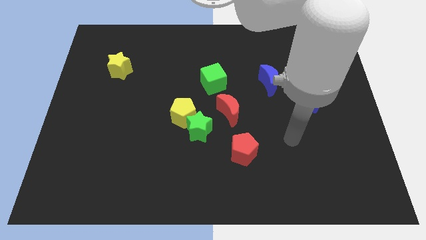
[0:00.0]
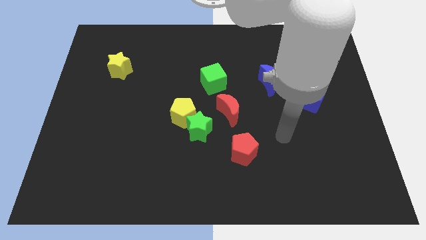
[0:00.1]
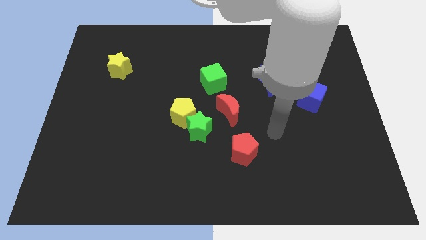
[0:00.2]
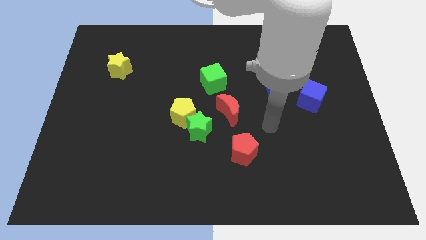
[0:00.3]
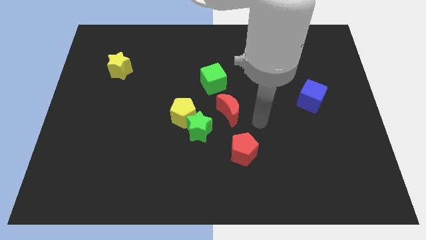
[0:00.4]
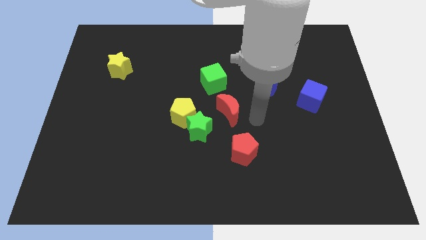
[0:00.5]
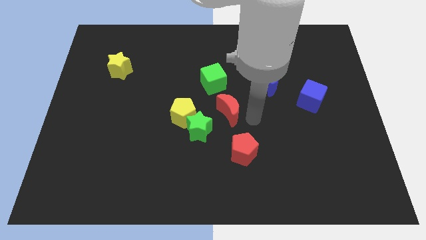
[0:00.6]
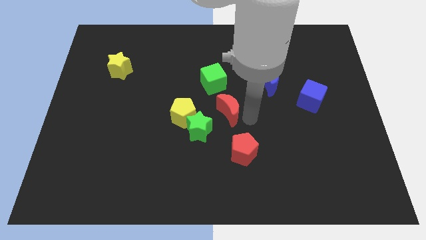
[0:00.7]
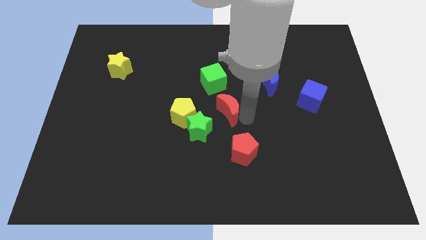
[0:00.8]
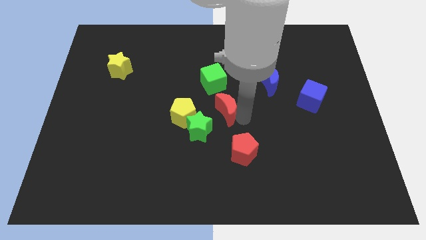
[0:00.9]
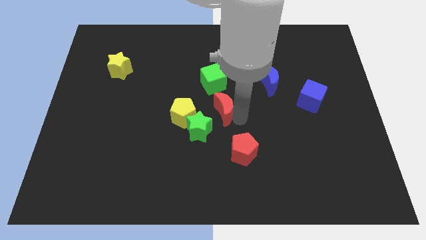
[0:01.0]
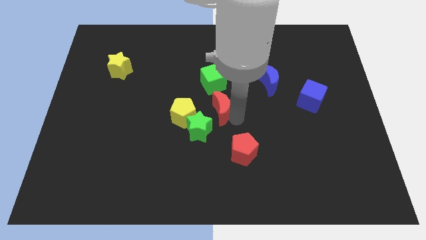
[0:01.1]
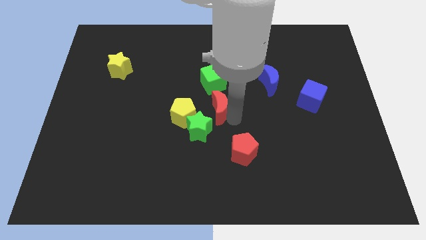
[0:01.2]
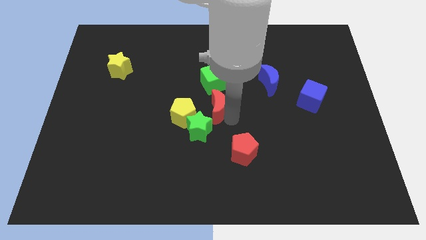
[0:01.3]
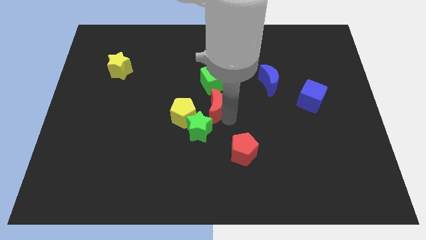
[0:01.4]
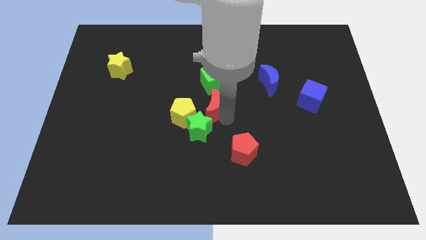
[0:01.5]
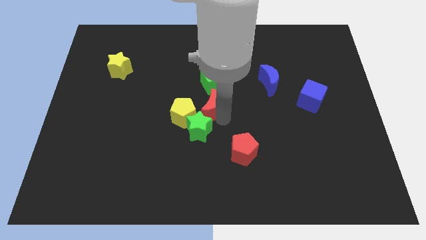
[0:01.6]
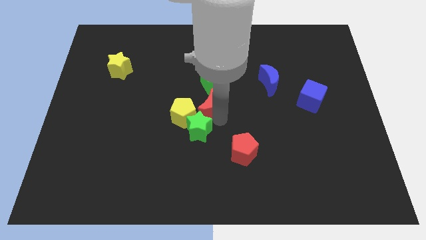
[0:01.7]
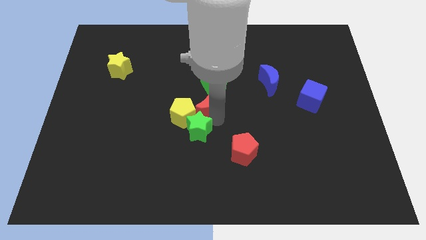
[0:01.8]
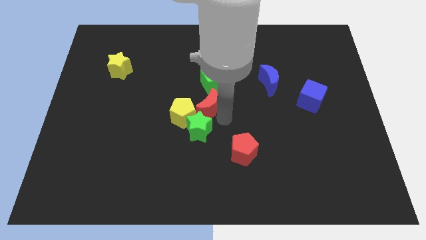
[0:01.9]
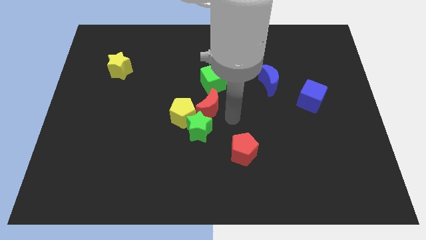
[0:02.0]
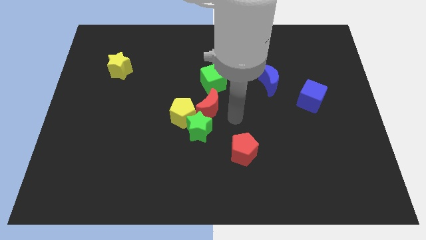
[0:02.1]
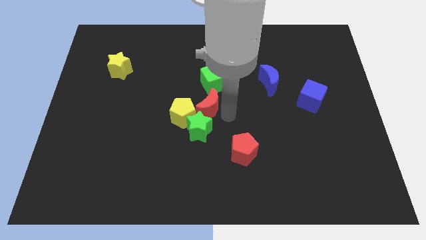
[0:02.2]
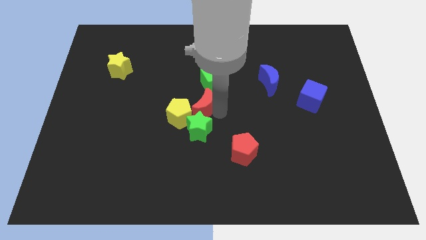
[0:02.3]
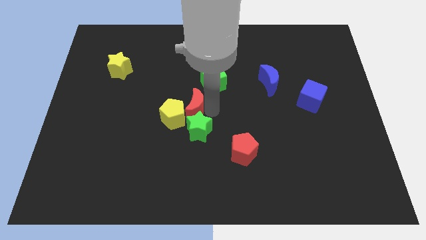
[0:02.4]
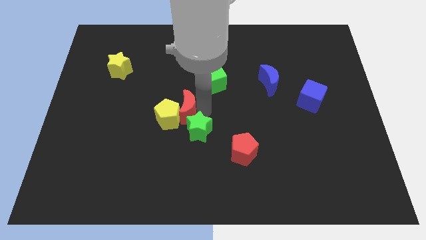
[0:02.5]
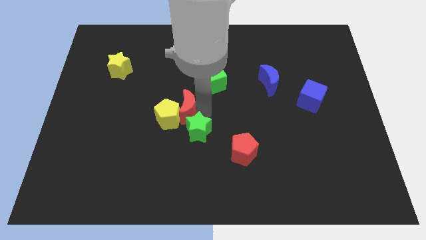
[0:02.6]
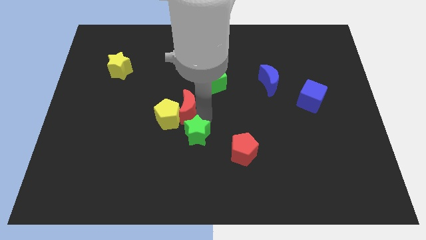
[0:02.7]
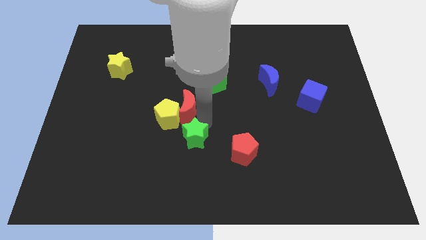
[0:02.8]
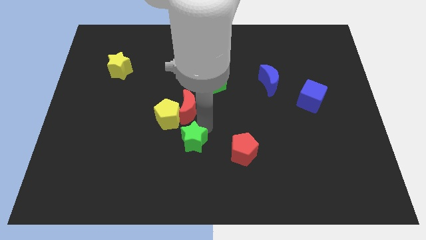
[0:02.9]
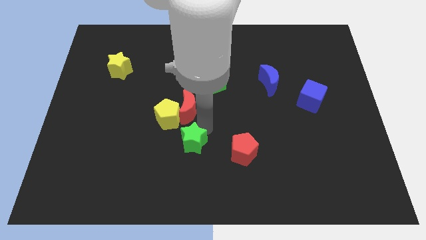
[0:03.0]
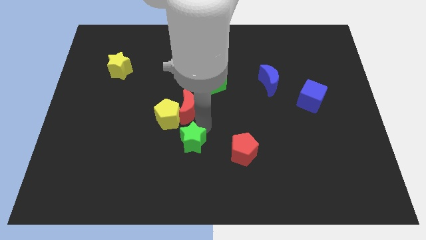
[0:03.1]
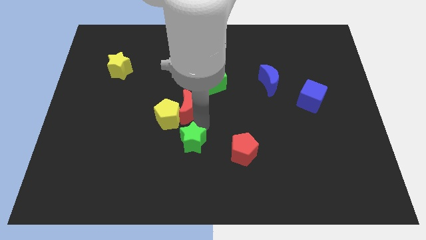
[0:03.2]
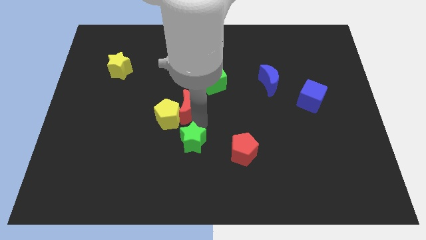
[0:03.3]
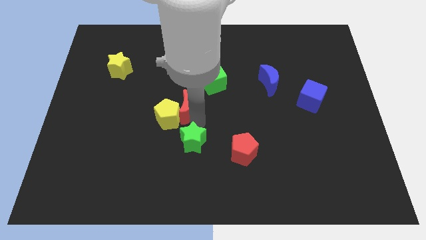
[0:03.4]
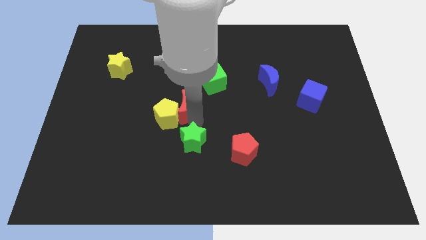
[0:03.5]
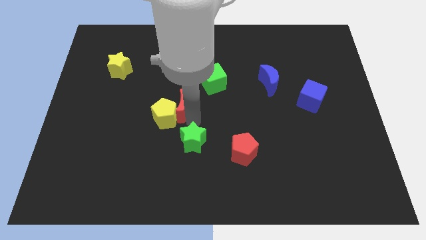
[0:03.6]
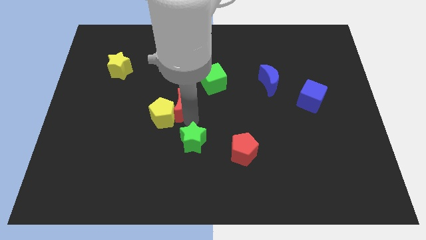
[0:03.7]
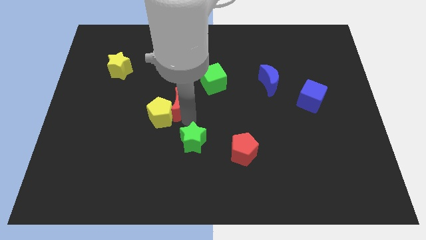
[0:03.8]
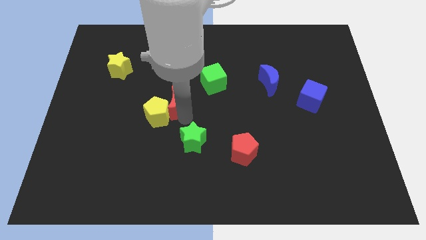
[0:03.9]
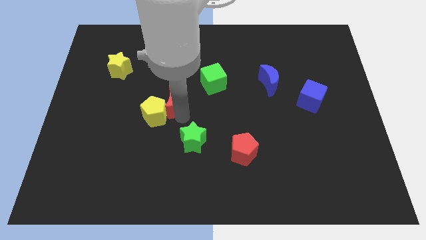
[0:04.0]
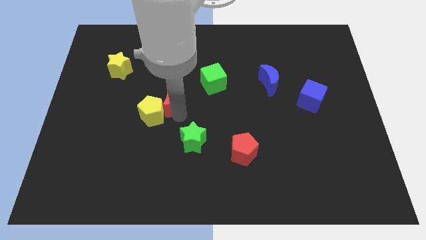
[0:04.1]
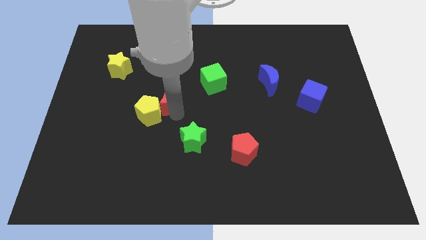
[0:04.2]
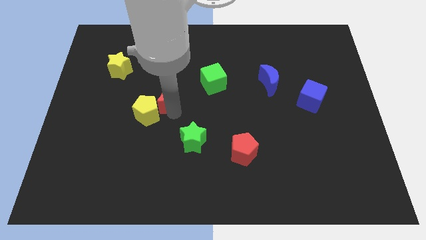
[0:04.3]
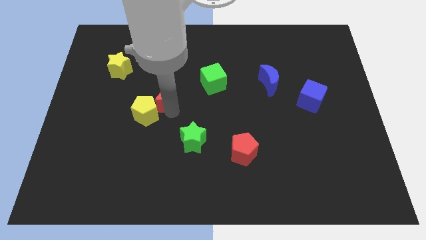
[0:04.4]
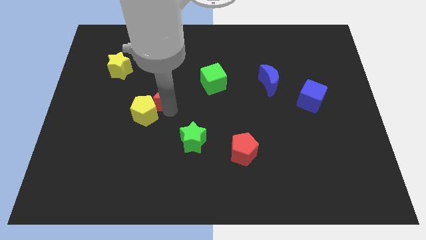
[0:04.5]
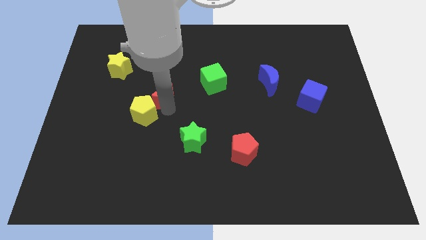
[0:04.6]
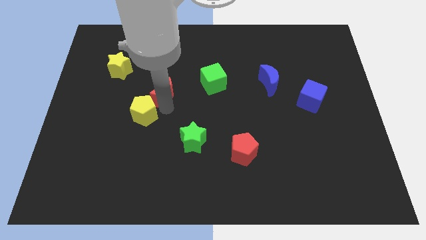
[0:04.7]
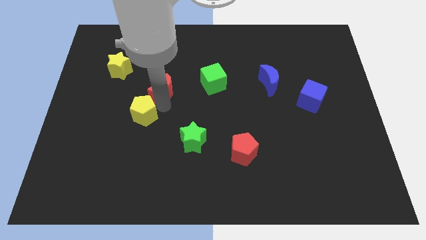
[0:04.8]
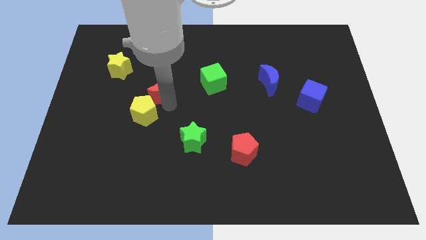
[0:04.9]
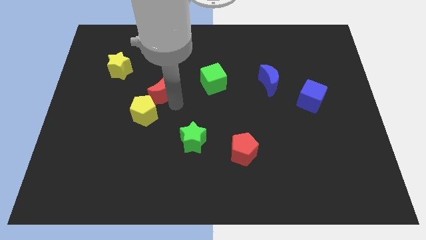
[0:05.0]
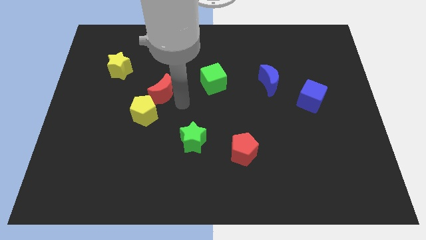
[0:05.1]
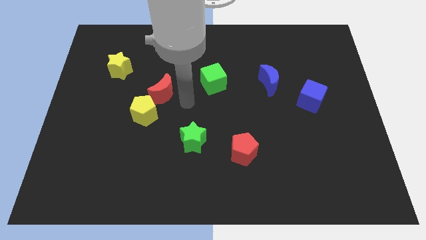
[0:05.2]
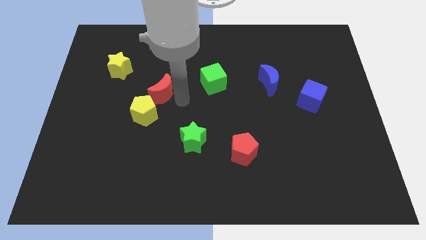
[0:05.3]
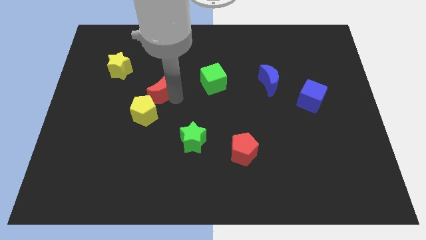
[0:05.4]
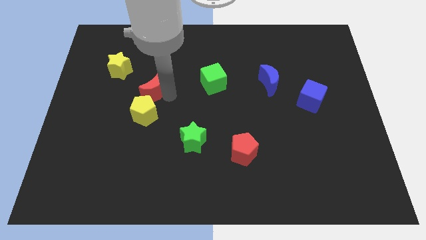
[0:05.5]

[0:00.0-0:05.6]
move the red moon to the bottom right of the yellow star

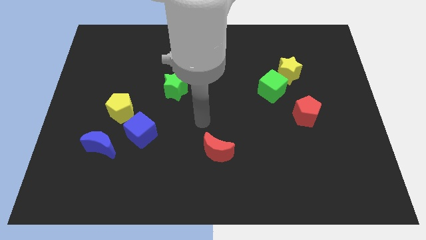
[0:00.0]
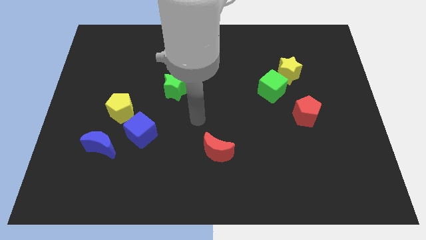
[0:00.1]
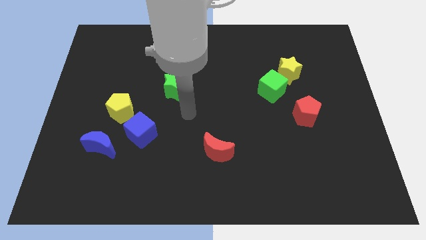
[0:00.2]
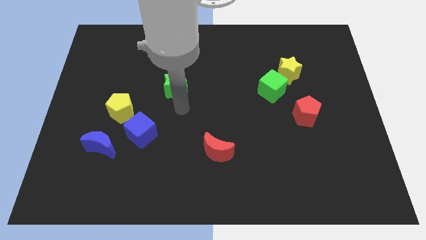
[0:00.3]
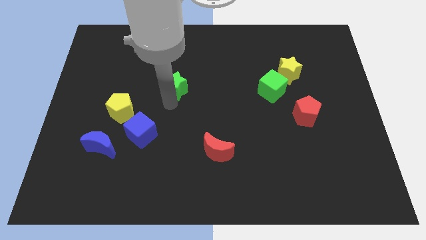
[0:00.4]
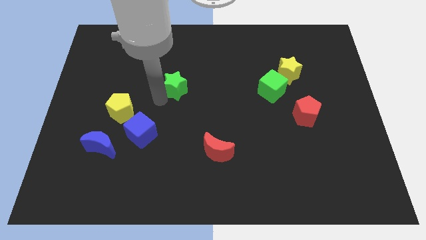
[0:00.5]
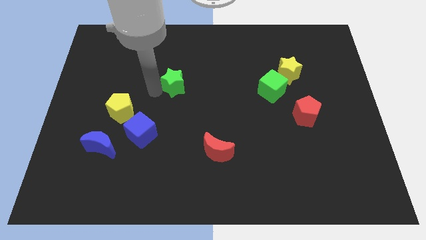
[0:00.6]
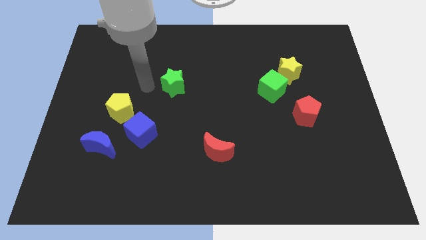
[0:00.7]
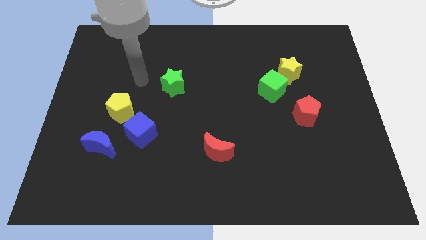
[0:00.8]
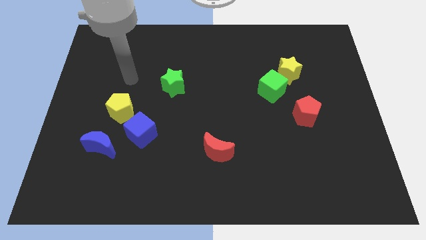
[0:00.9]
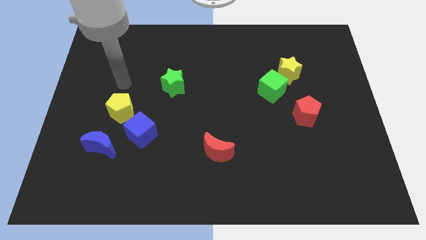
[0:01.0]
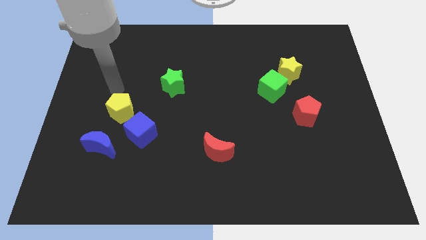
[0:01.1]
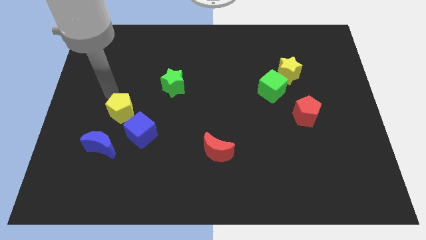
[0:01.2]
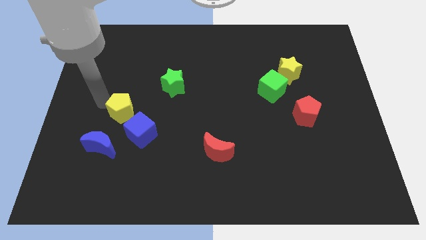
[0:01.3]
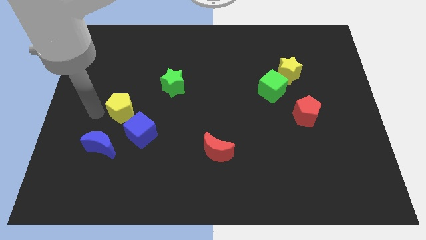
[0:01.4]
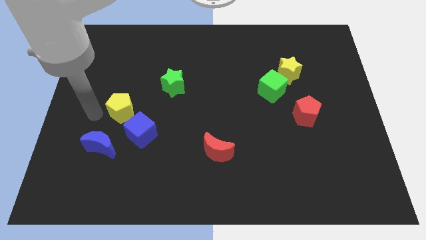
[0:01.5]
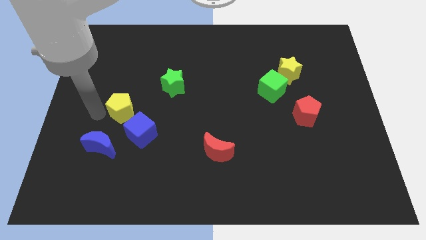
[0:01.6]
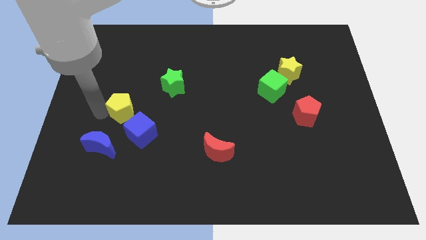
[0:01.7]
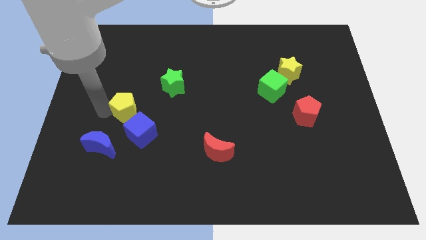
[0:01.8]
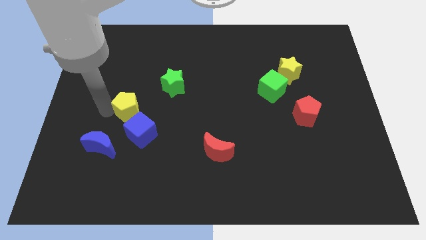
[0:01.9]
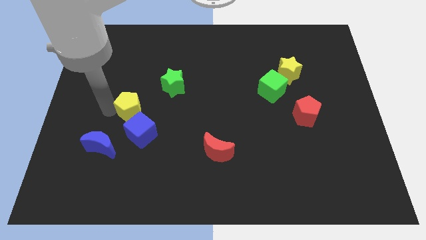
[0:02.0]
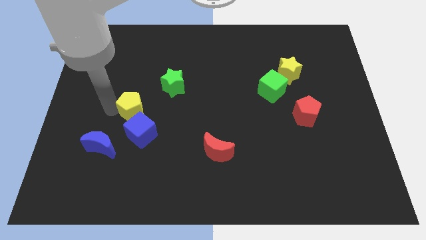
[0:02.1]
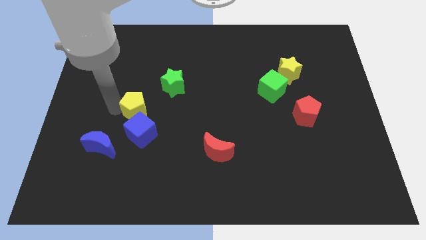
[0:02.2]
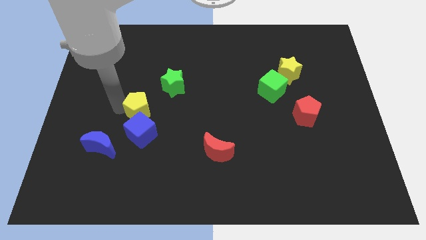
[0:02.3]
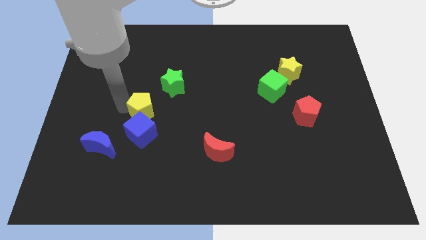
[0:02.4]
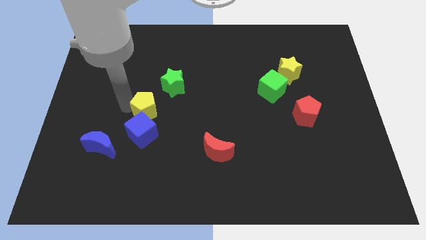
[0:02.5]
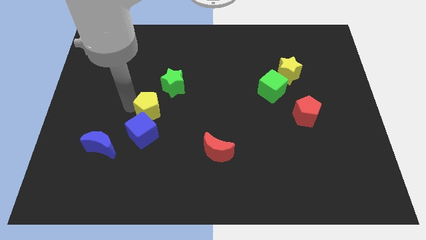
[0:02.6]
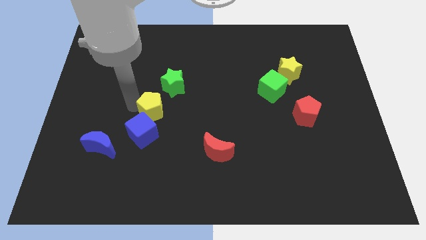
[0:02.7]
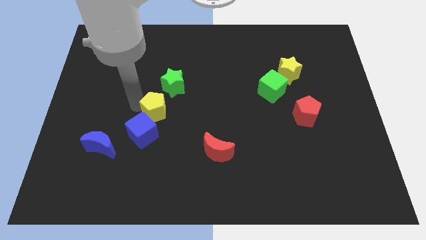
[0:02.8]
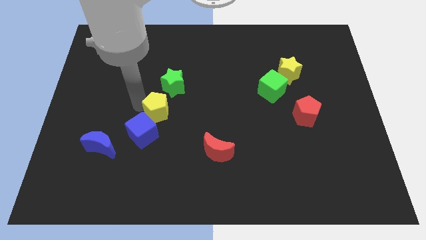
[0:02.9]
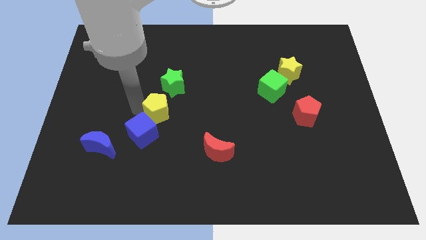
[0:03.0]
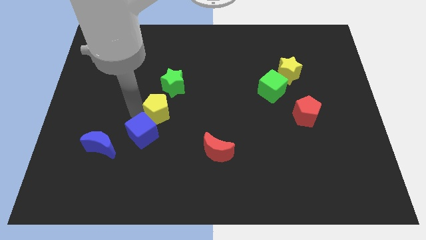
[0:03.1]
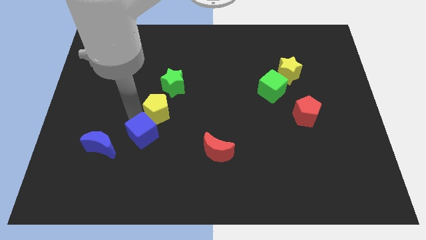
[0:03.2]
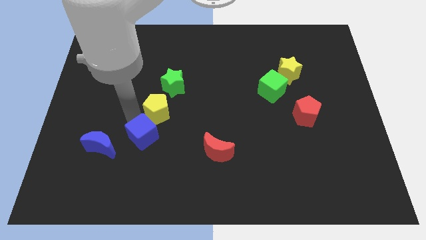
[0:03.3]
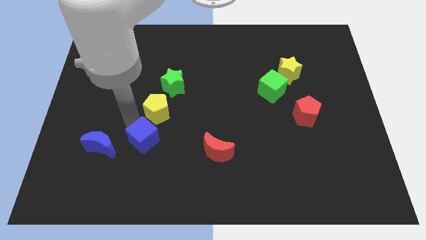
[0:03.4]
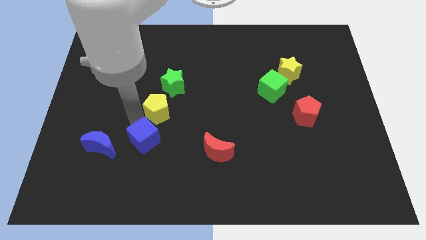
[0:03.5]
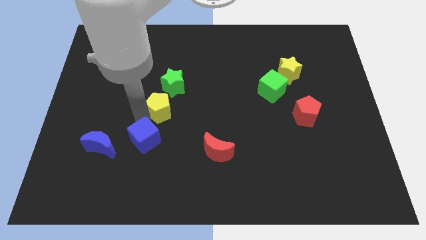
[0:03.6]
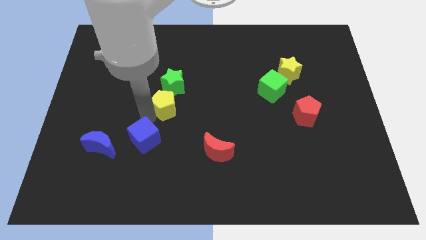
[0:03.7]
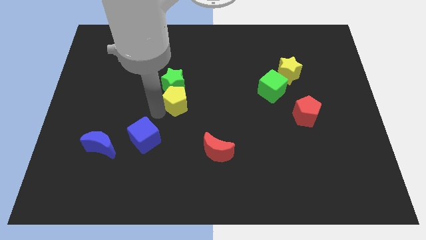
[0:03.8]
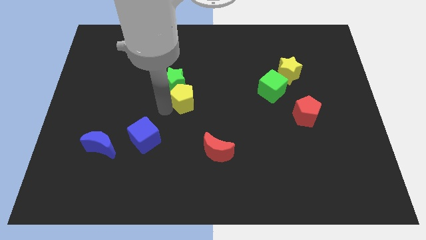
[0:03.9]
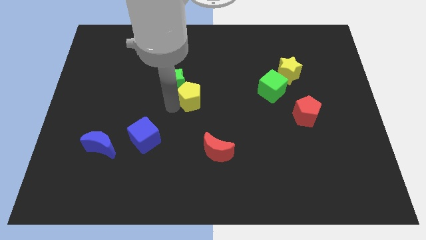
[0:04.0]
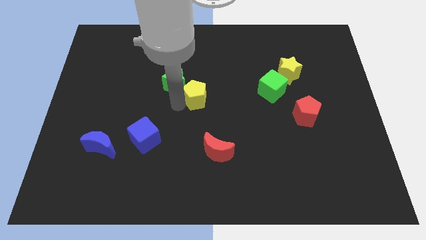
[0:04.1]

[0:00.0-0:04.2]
push the yellow pentagon right of the green star
